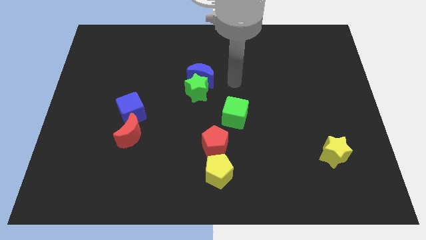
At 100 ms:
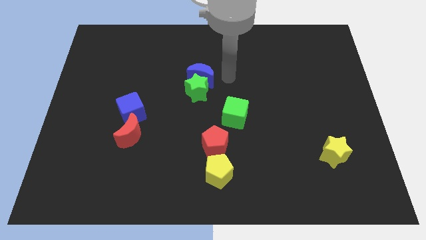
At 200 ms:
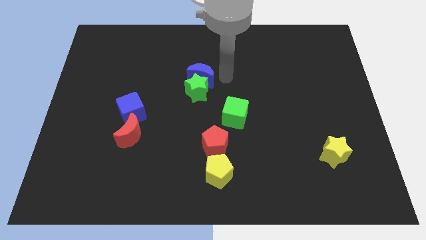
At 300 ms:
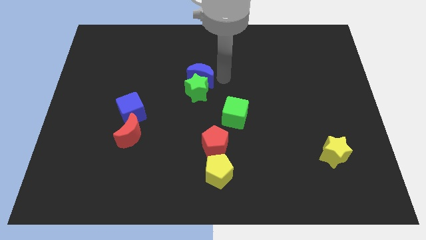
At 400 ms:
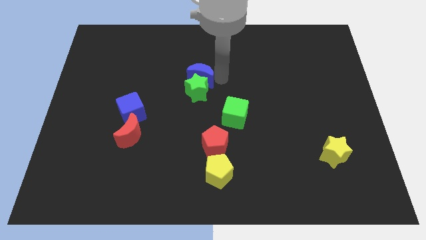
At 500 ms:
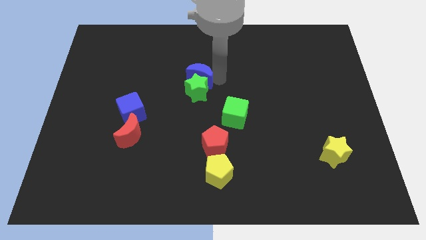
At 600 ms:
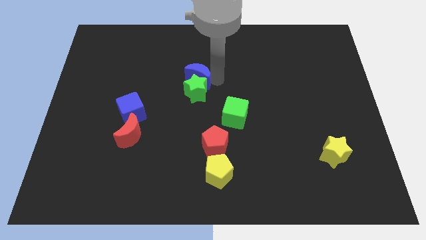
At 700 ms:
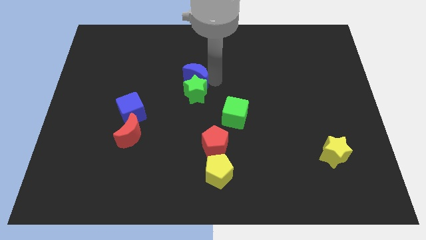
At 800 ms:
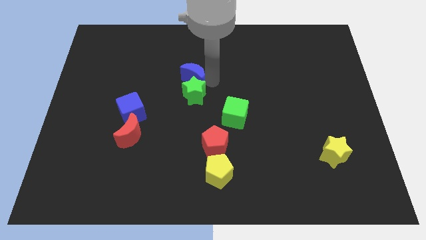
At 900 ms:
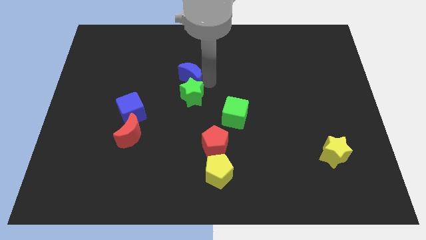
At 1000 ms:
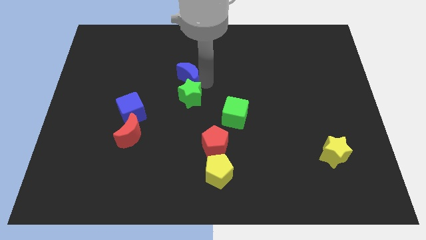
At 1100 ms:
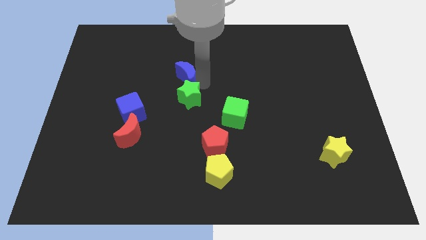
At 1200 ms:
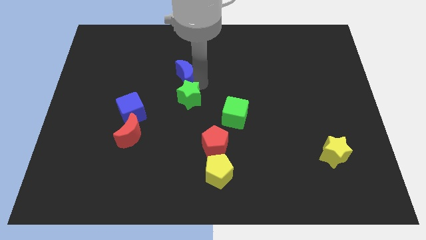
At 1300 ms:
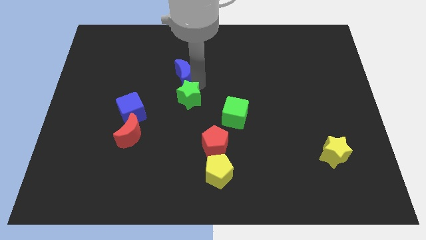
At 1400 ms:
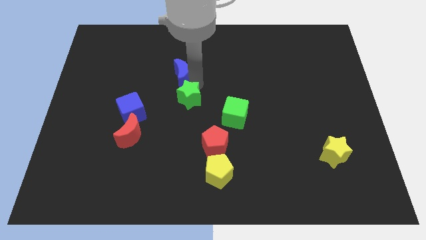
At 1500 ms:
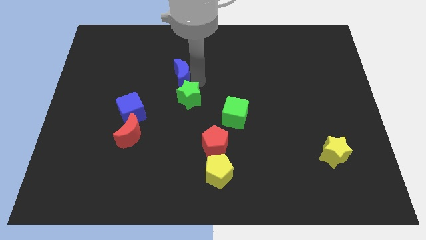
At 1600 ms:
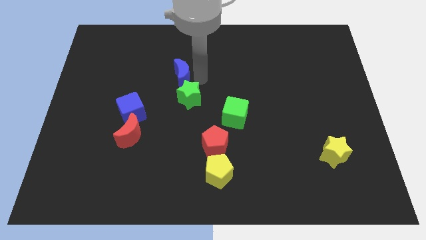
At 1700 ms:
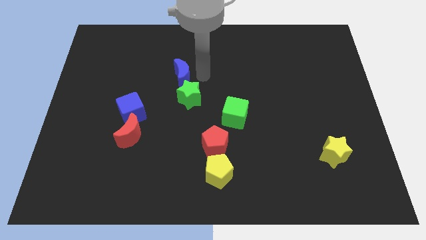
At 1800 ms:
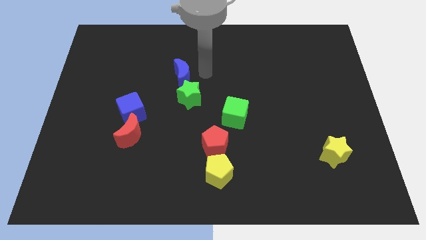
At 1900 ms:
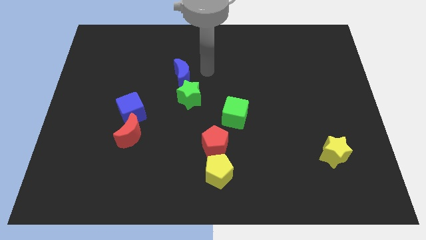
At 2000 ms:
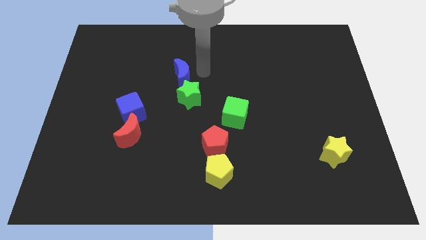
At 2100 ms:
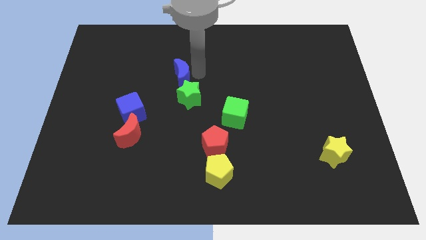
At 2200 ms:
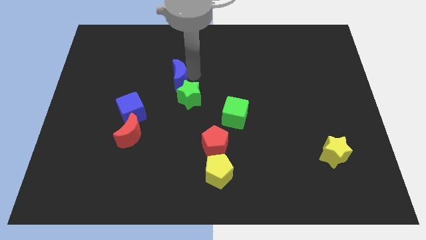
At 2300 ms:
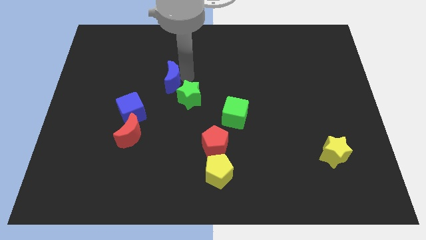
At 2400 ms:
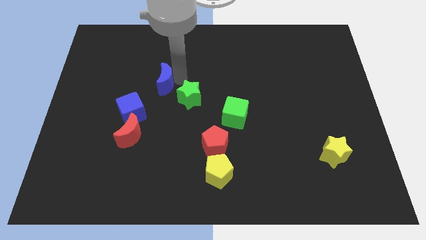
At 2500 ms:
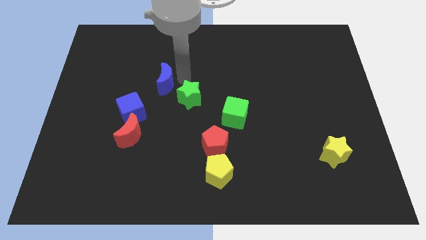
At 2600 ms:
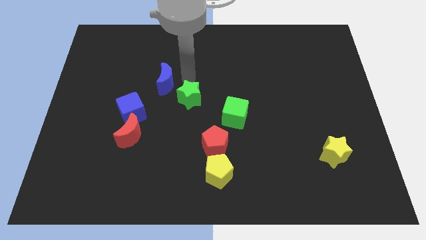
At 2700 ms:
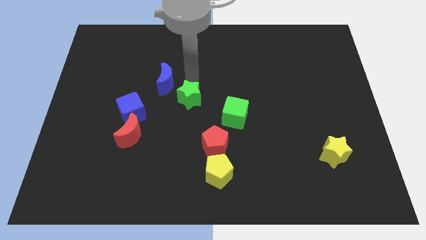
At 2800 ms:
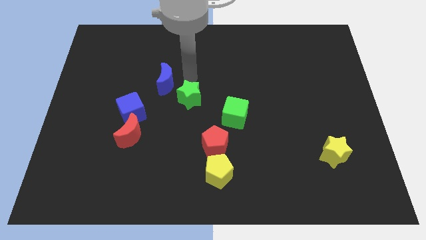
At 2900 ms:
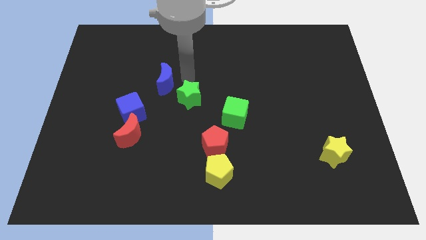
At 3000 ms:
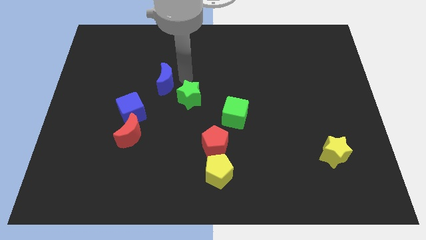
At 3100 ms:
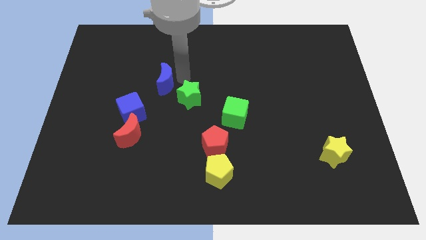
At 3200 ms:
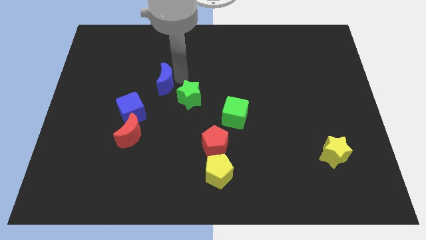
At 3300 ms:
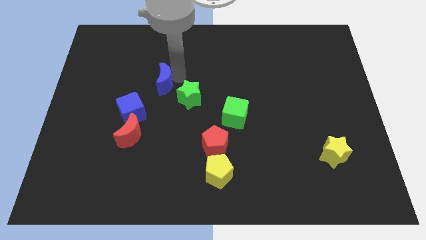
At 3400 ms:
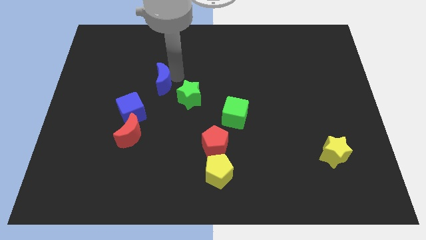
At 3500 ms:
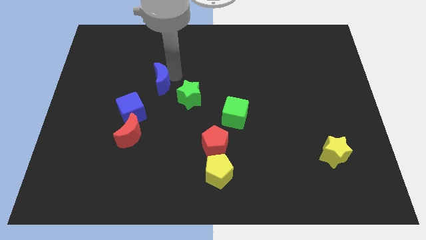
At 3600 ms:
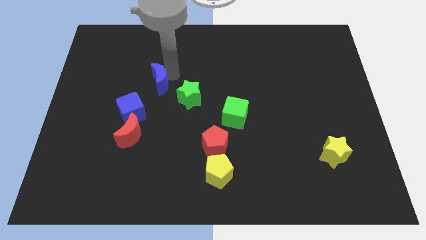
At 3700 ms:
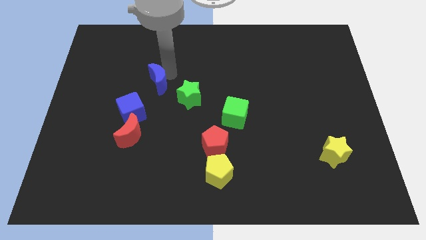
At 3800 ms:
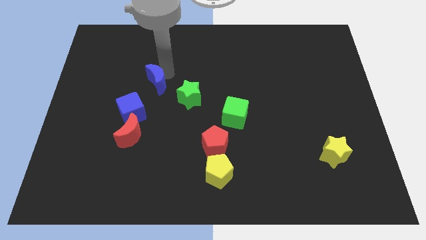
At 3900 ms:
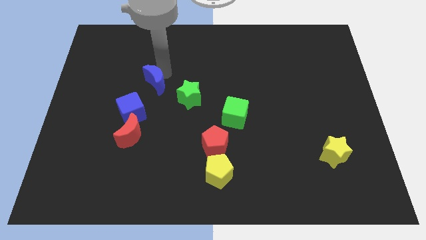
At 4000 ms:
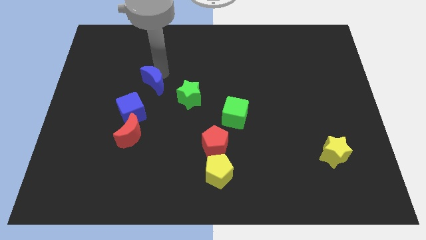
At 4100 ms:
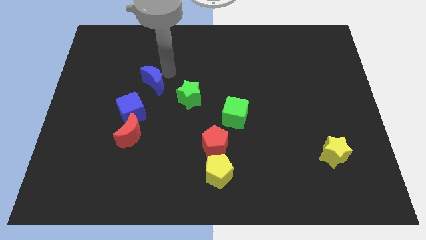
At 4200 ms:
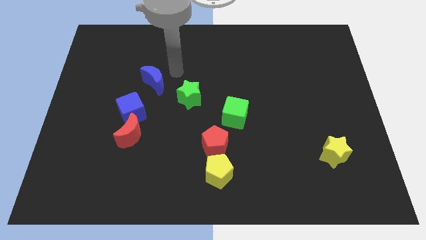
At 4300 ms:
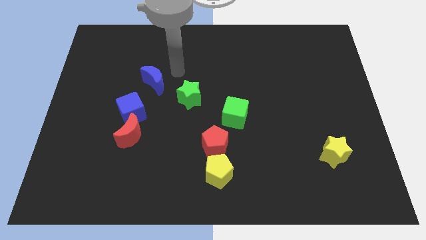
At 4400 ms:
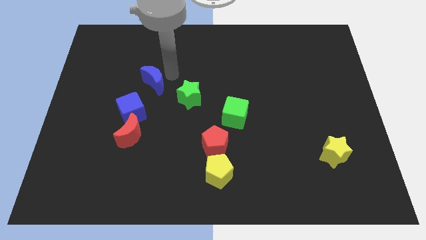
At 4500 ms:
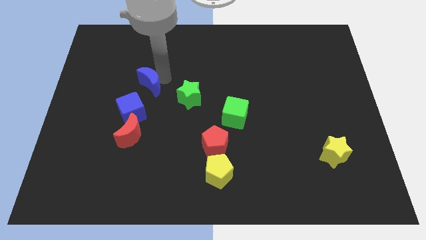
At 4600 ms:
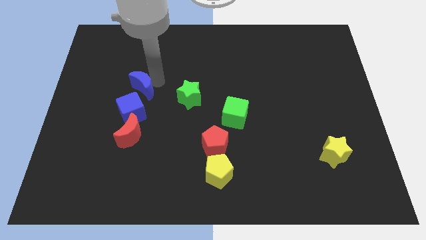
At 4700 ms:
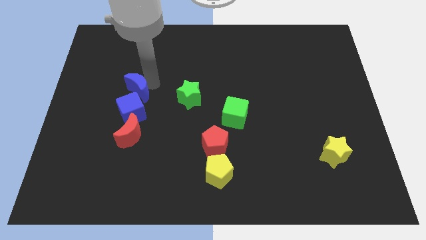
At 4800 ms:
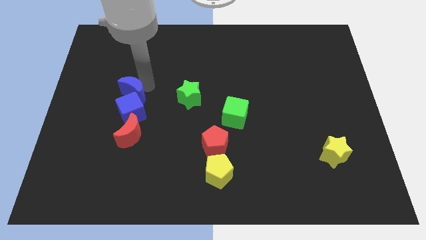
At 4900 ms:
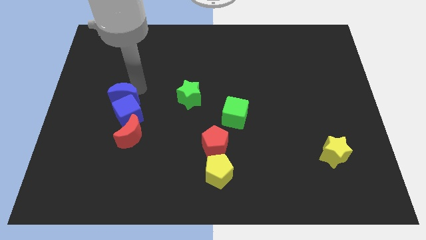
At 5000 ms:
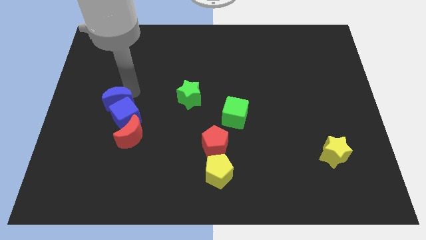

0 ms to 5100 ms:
slide the blue moon diagonally up and to the left of the red moon

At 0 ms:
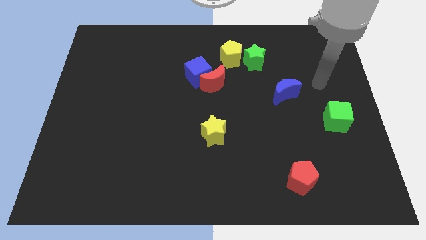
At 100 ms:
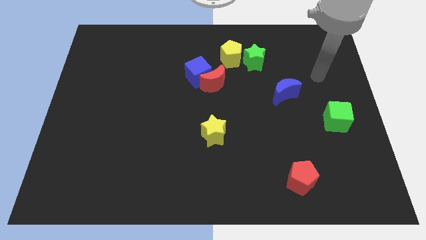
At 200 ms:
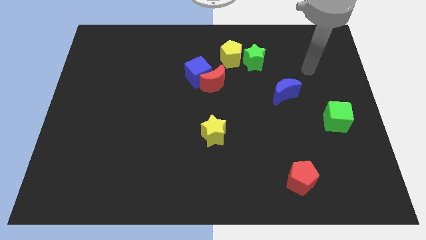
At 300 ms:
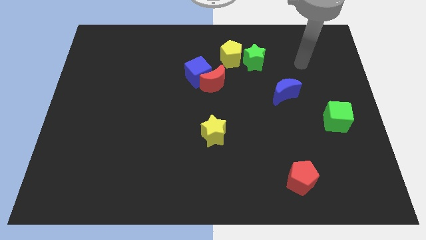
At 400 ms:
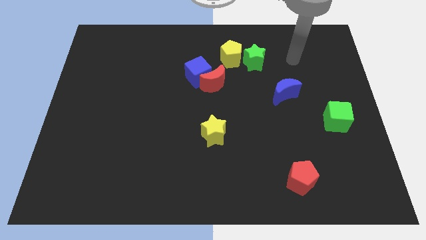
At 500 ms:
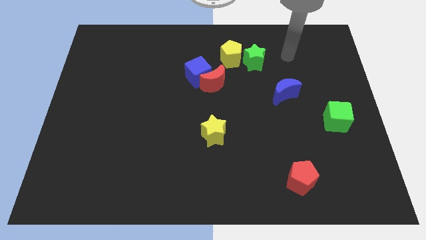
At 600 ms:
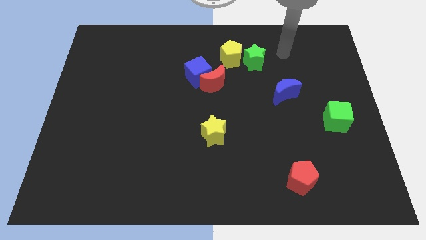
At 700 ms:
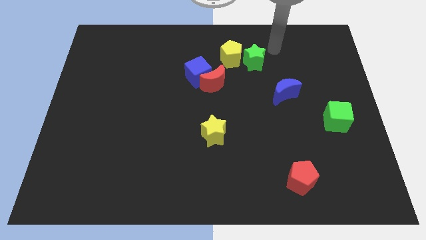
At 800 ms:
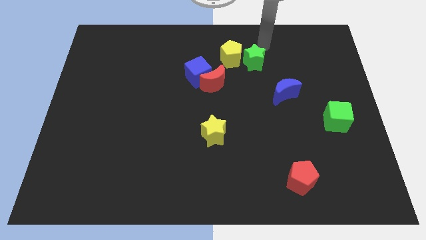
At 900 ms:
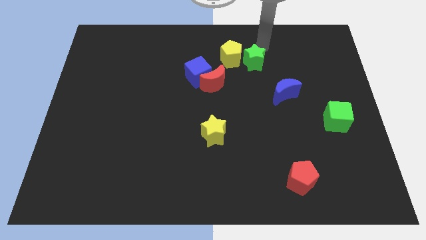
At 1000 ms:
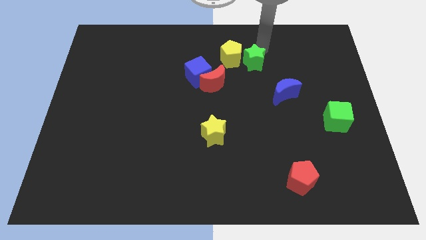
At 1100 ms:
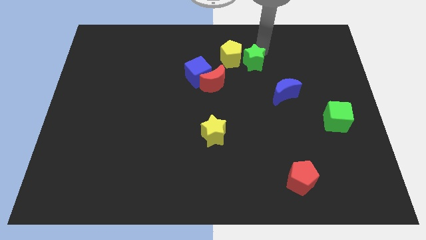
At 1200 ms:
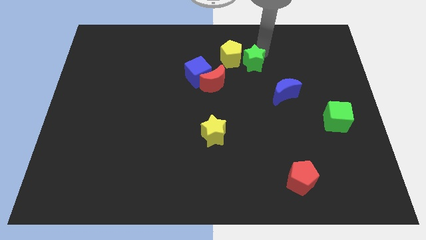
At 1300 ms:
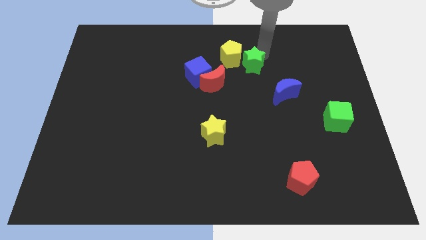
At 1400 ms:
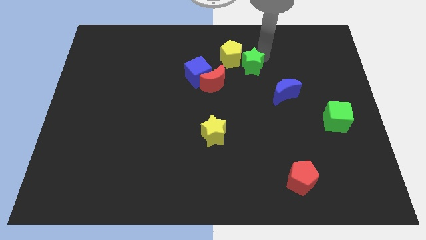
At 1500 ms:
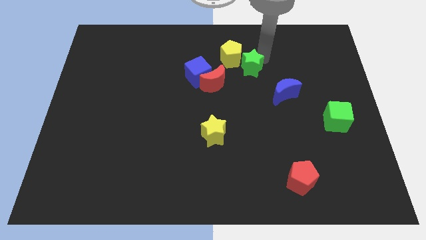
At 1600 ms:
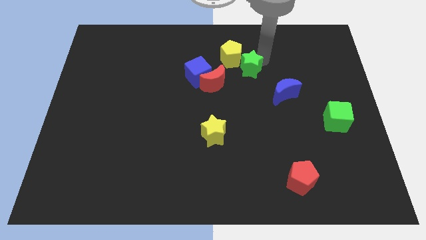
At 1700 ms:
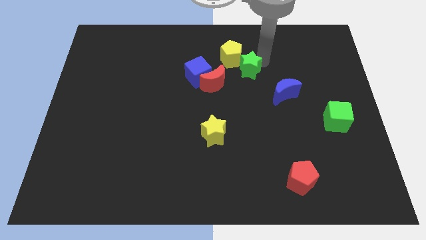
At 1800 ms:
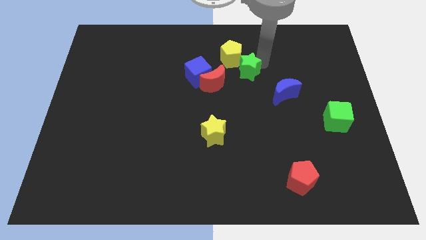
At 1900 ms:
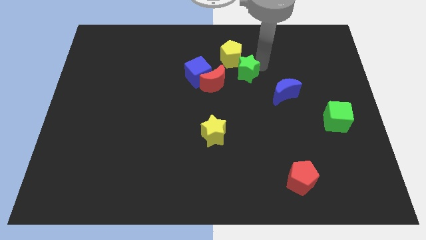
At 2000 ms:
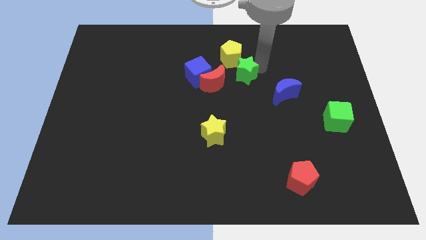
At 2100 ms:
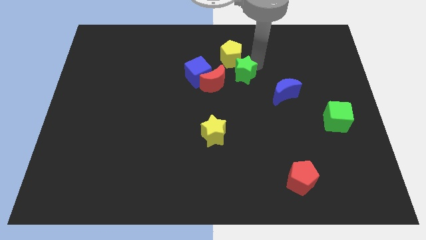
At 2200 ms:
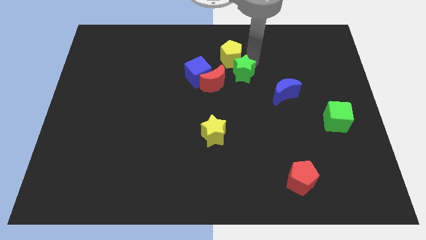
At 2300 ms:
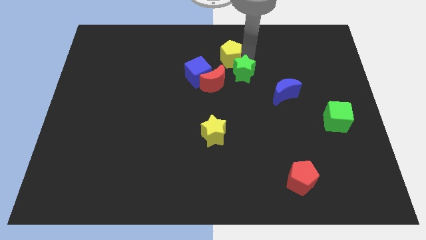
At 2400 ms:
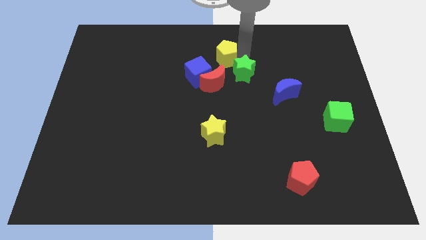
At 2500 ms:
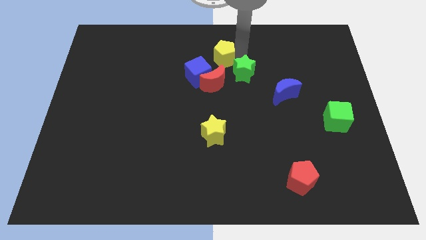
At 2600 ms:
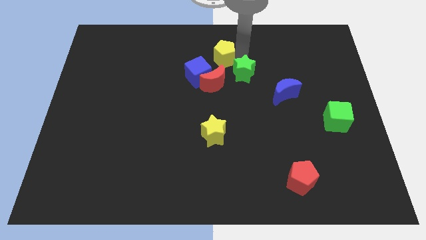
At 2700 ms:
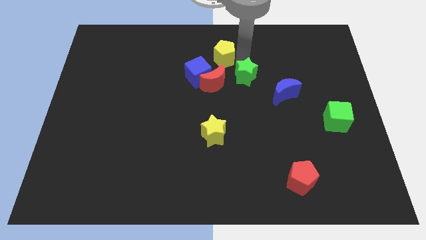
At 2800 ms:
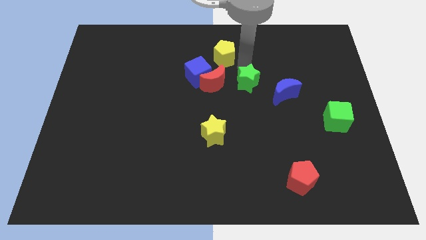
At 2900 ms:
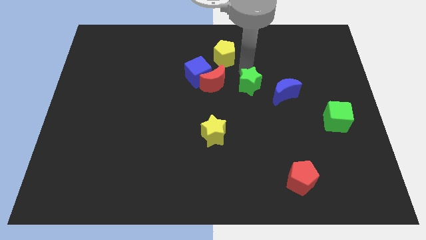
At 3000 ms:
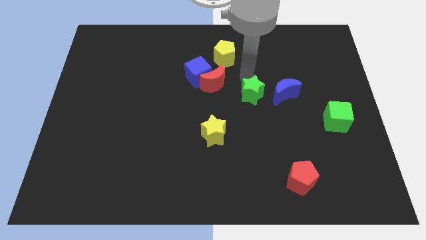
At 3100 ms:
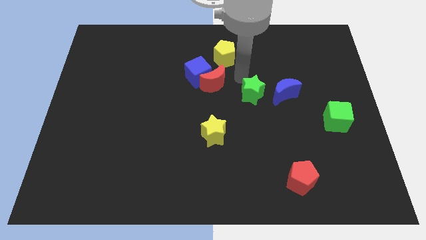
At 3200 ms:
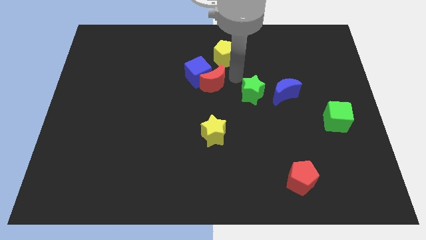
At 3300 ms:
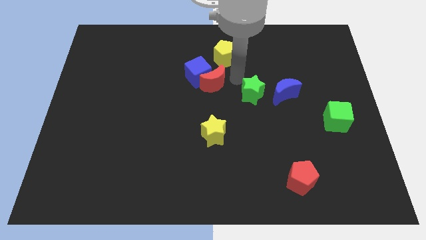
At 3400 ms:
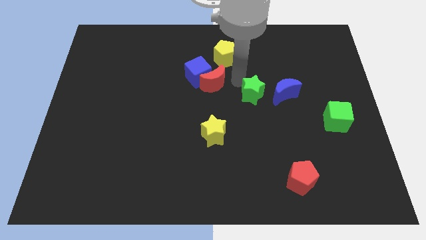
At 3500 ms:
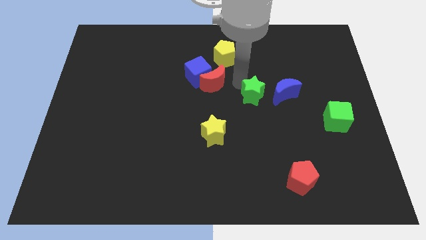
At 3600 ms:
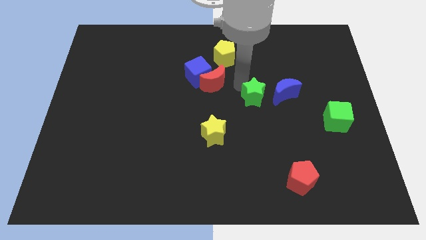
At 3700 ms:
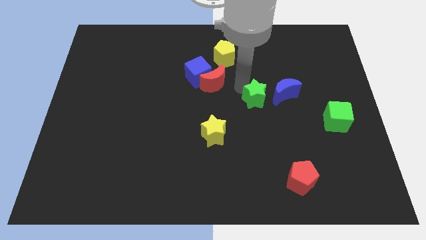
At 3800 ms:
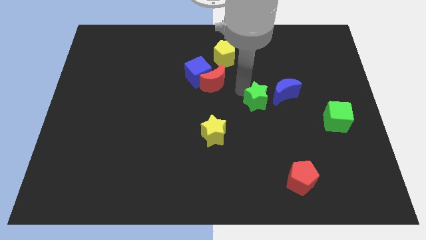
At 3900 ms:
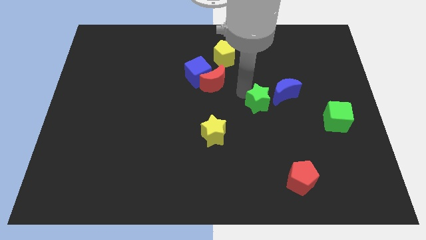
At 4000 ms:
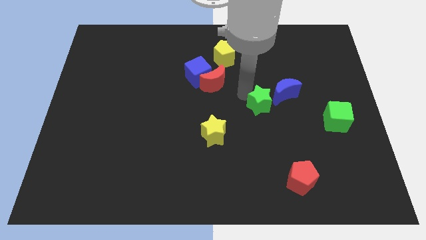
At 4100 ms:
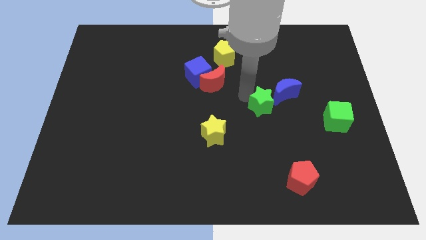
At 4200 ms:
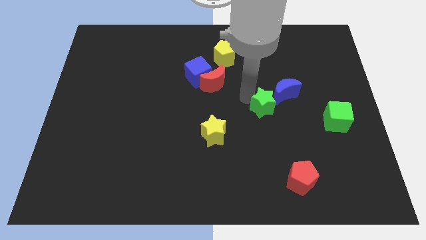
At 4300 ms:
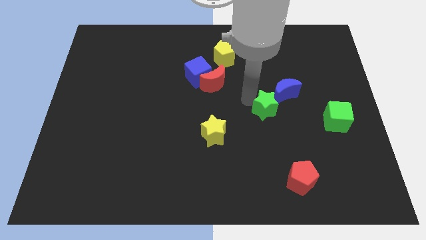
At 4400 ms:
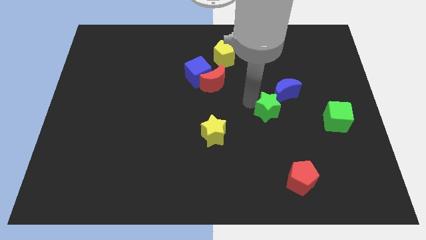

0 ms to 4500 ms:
move the green star to the left of the green cube
